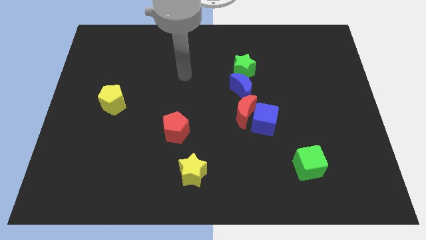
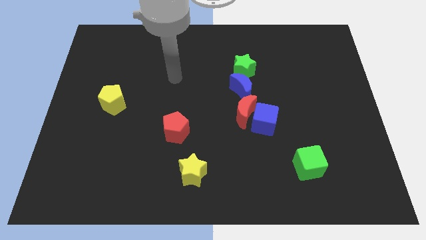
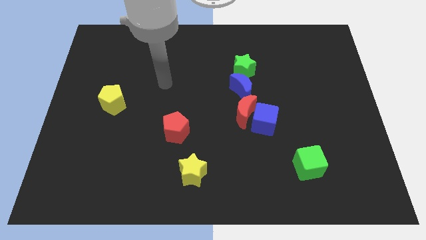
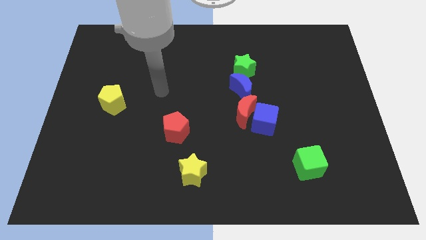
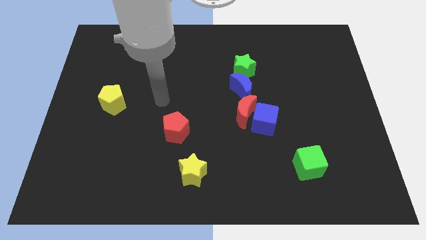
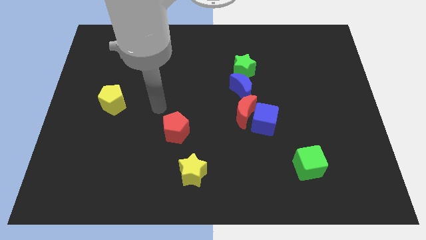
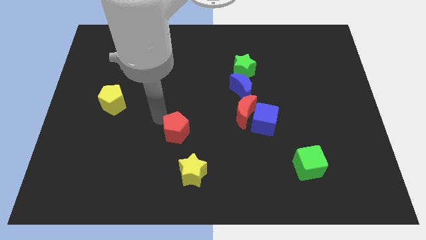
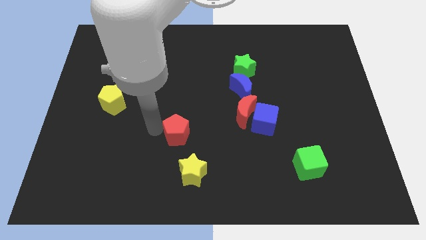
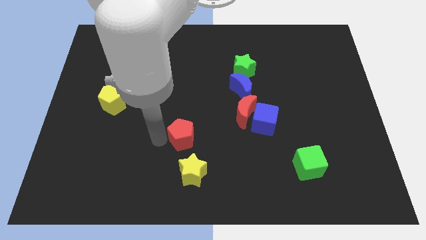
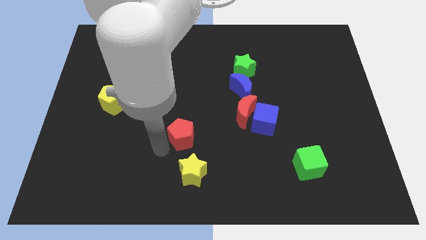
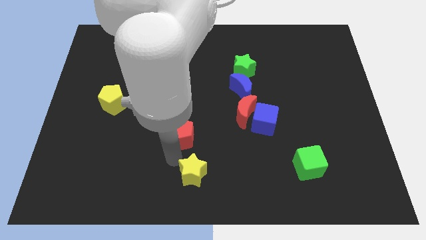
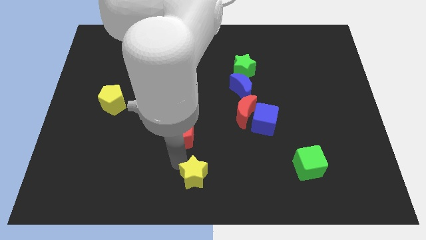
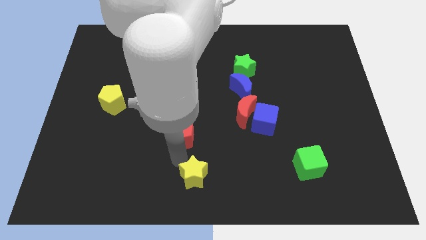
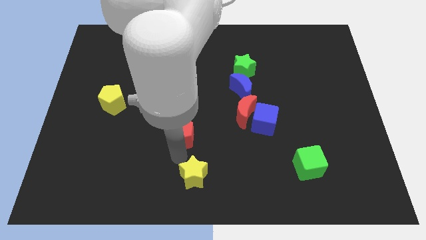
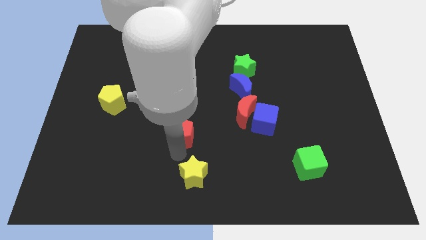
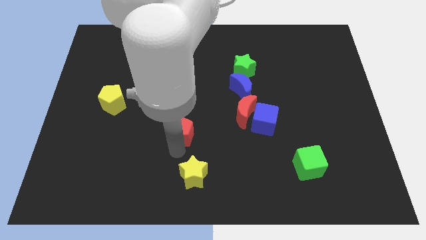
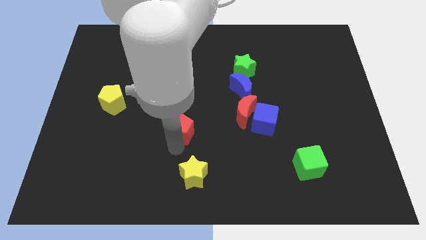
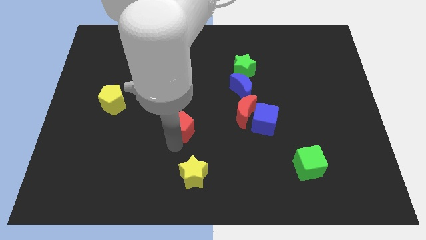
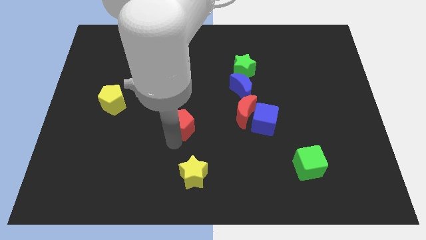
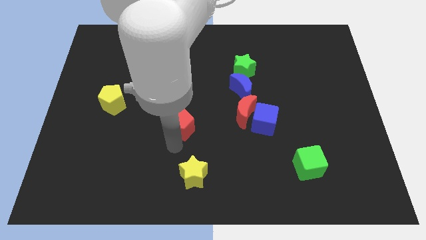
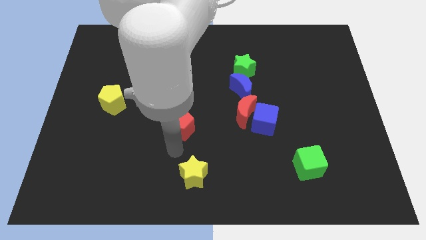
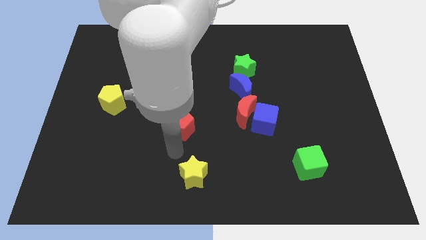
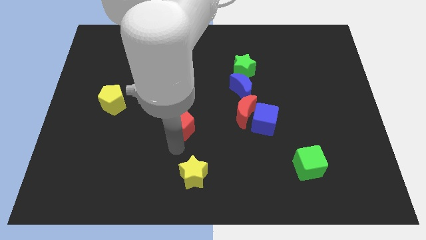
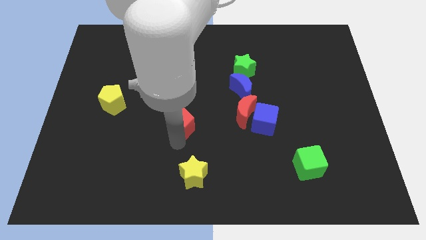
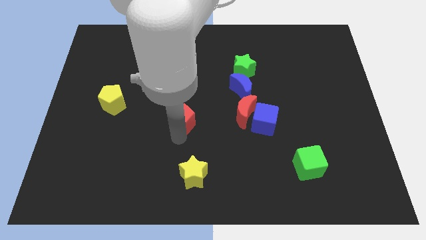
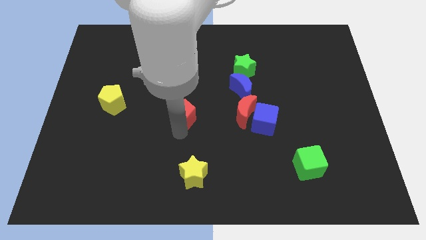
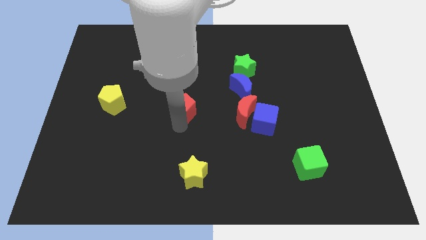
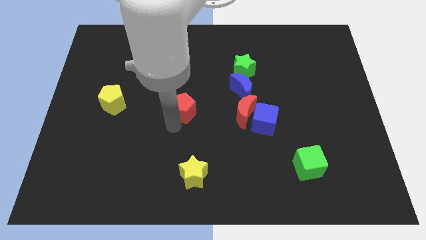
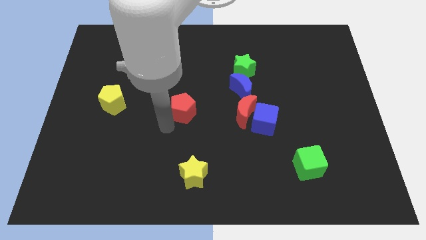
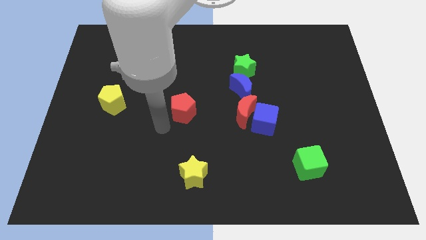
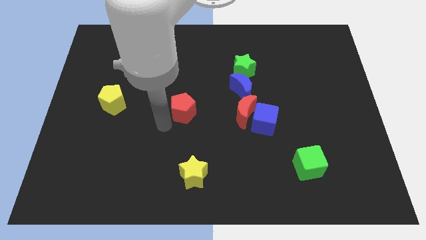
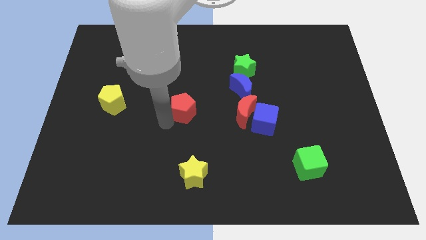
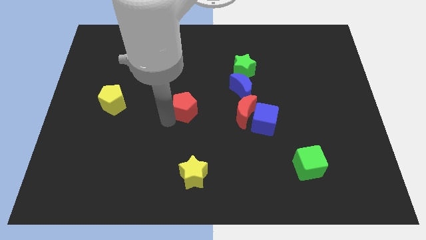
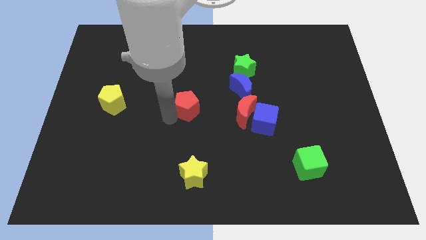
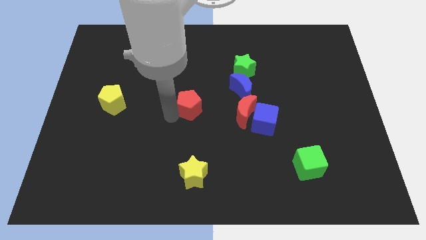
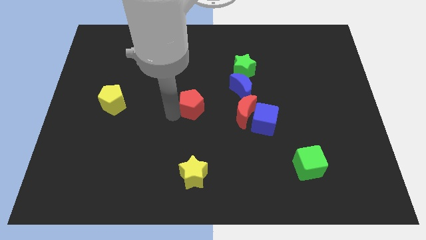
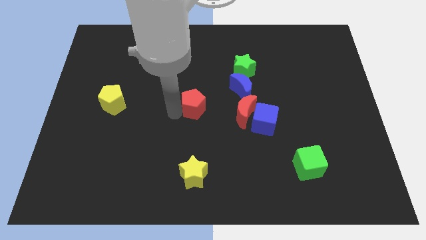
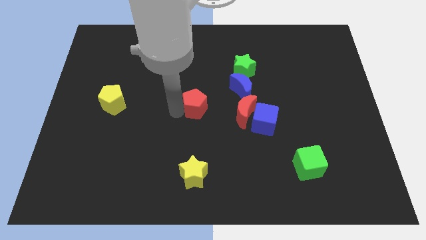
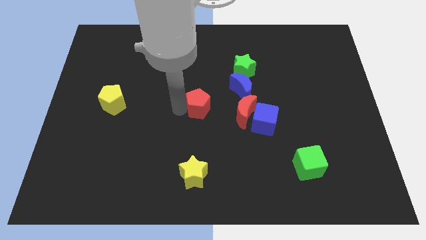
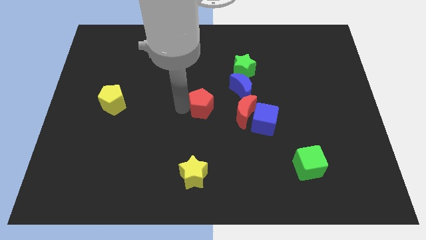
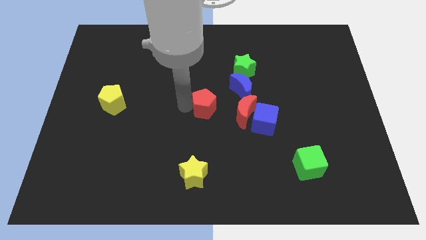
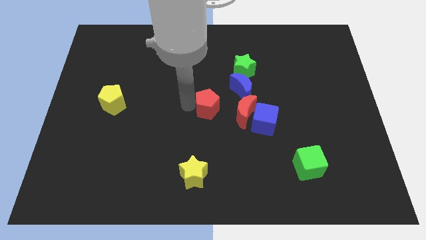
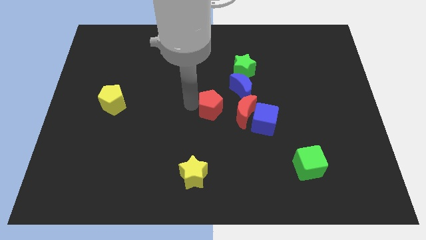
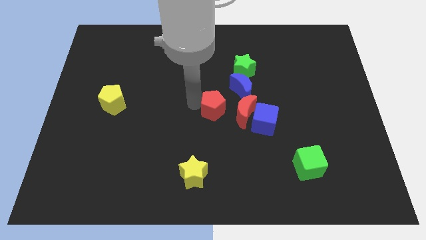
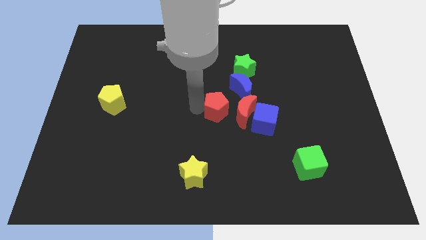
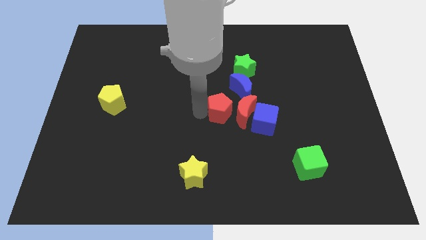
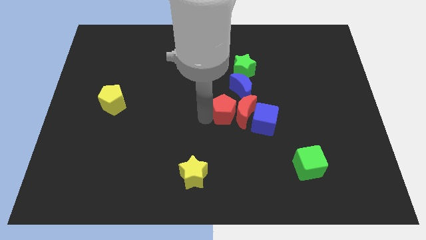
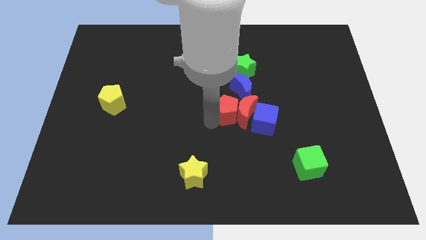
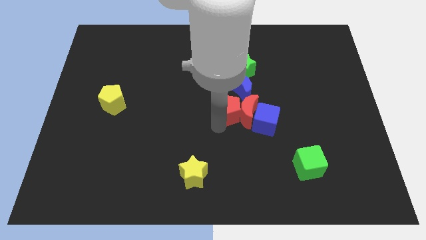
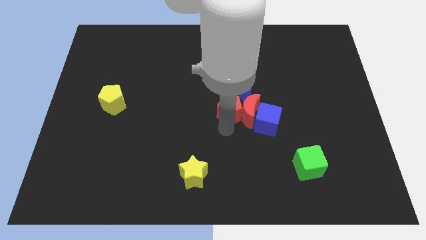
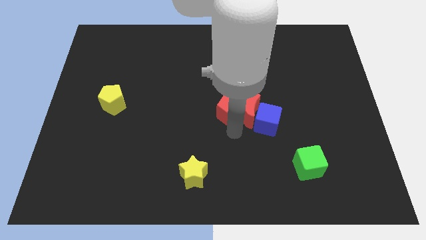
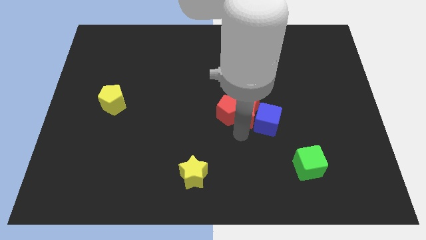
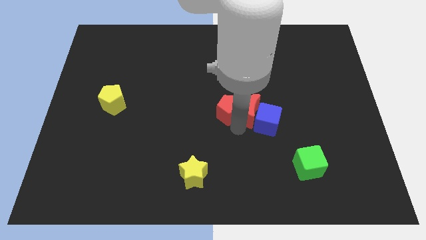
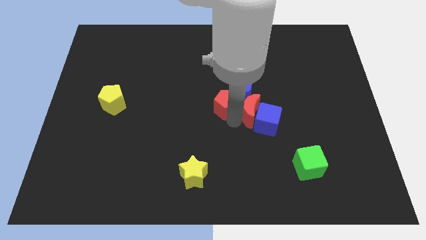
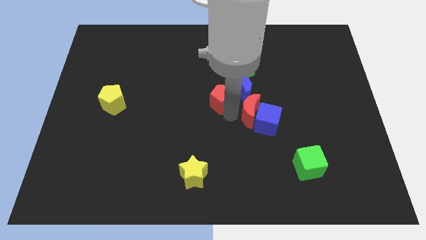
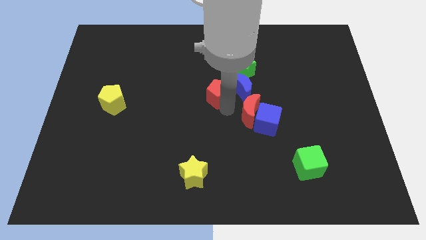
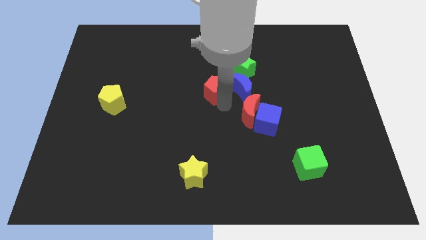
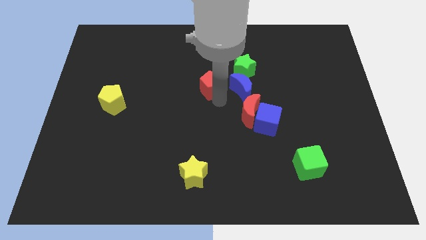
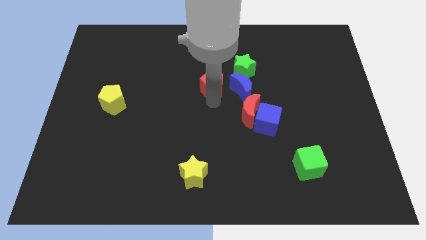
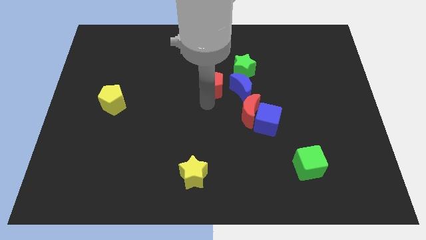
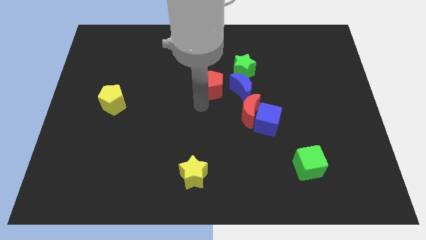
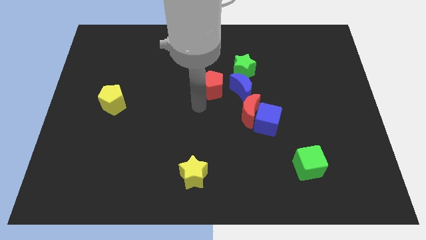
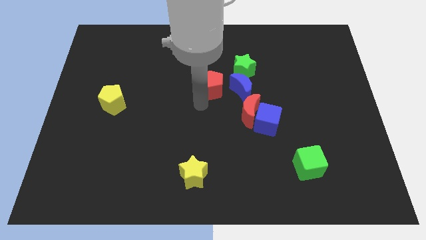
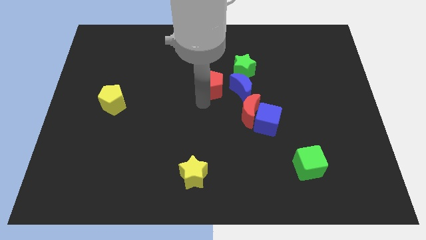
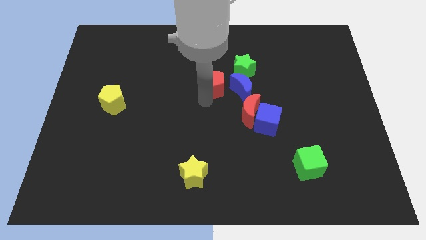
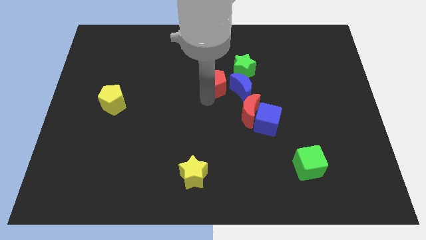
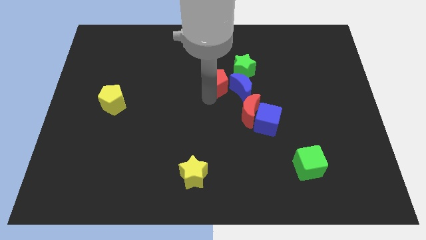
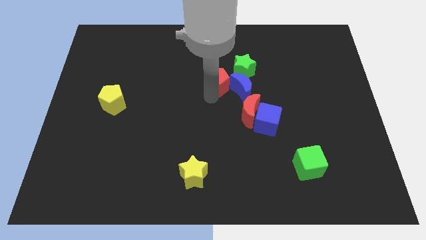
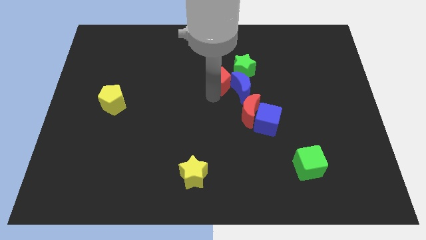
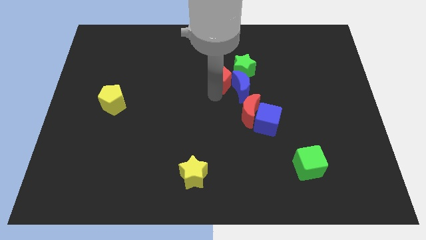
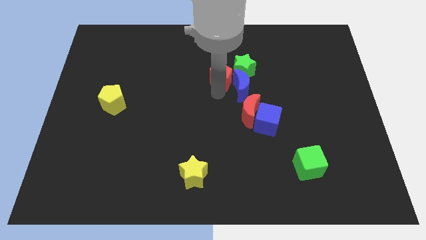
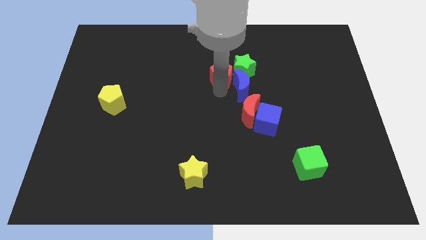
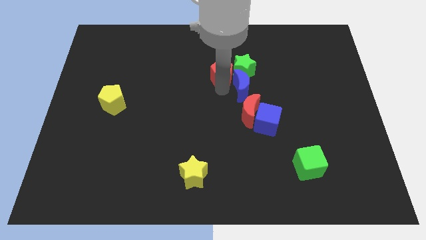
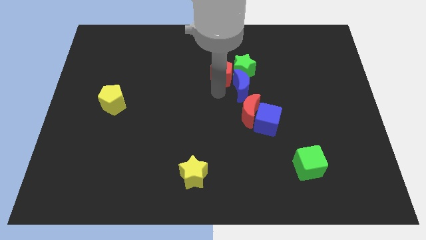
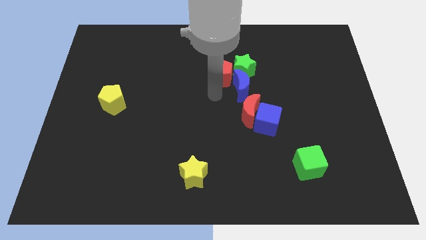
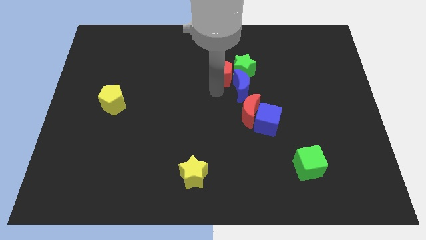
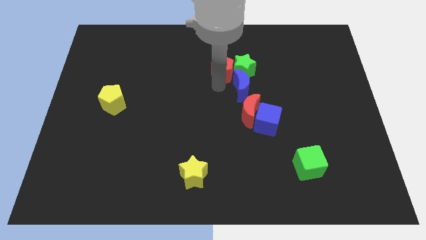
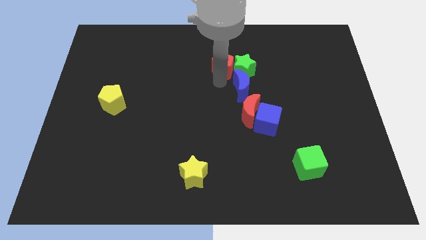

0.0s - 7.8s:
move the red pentagon diagonally upwards and right
